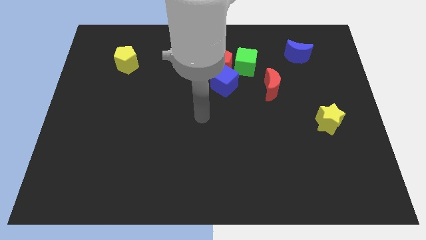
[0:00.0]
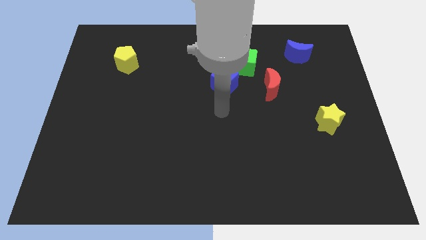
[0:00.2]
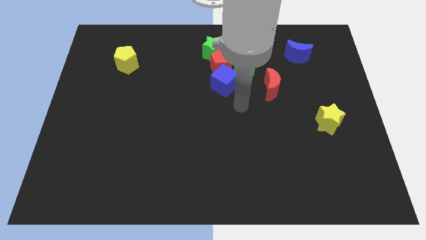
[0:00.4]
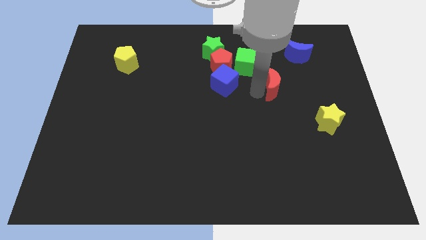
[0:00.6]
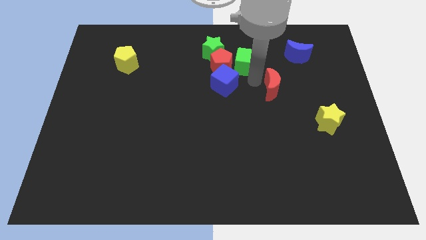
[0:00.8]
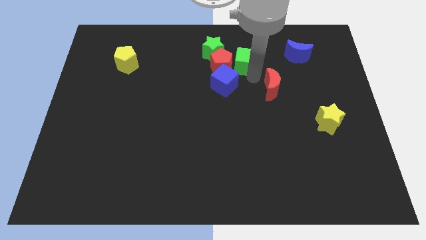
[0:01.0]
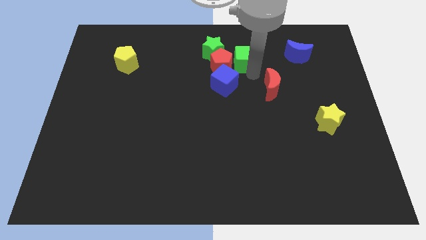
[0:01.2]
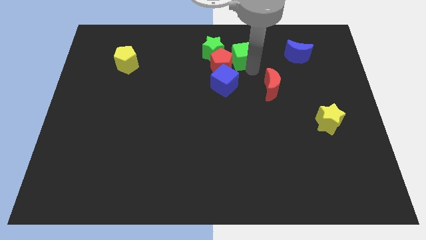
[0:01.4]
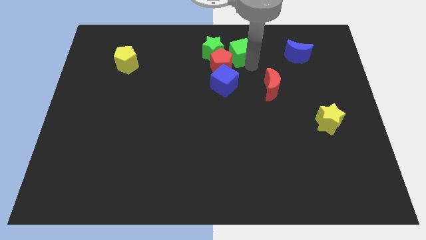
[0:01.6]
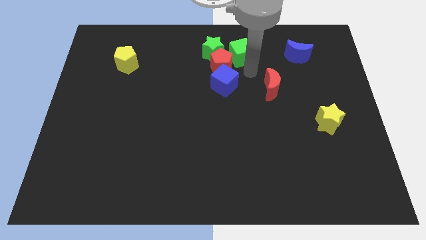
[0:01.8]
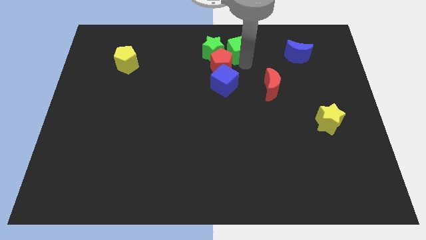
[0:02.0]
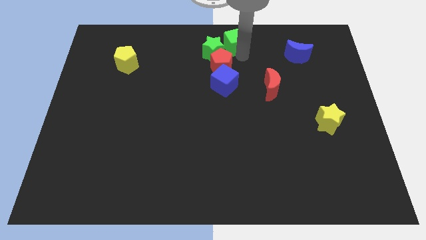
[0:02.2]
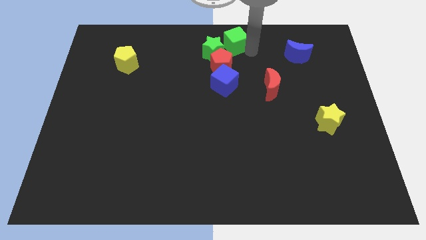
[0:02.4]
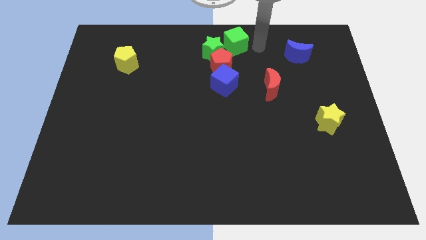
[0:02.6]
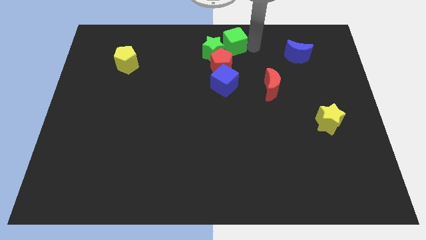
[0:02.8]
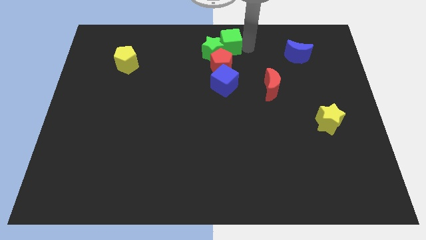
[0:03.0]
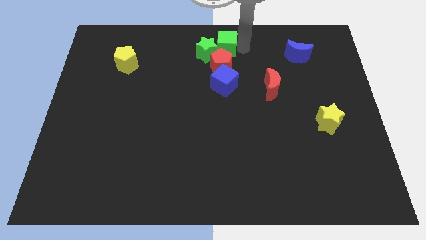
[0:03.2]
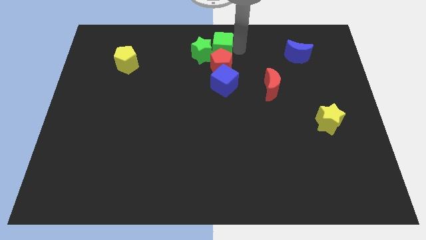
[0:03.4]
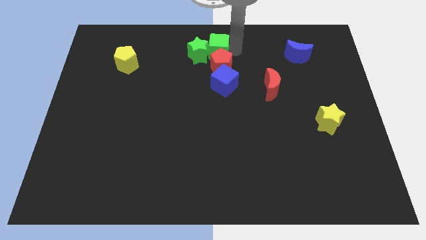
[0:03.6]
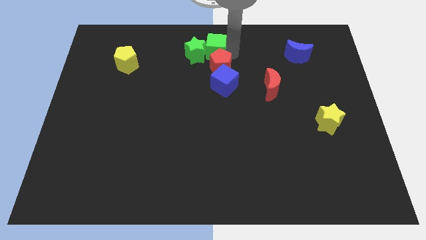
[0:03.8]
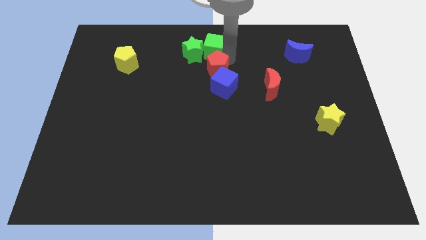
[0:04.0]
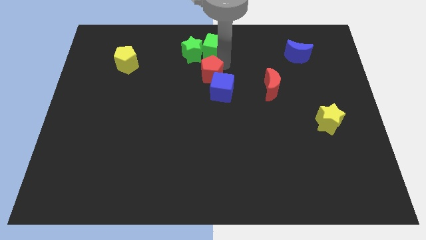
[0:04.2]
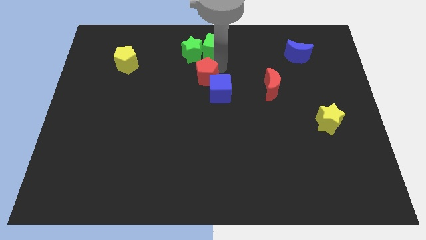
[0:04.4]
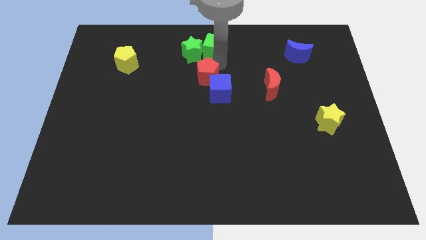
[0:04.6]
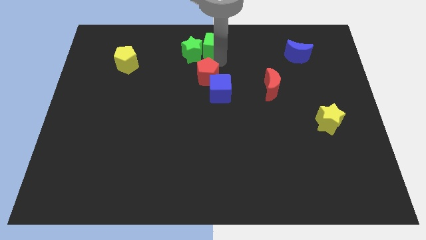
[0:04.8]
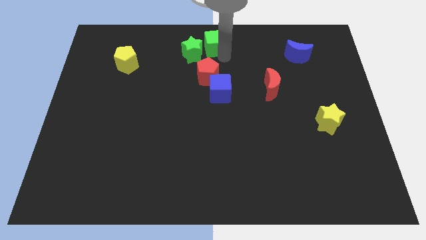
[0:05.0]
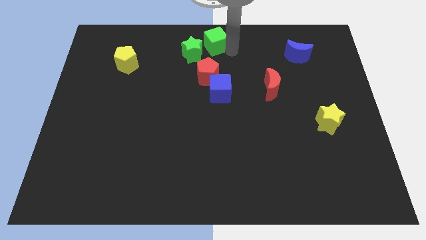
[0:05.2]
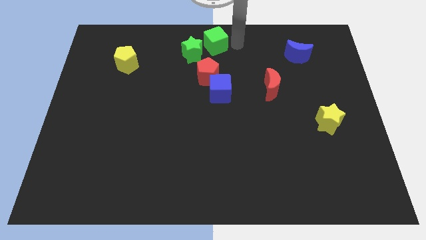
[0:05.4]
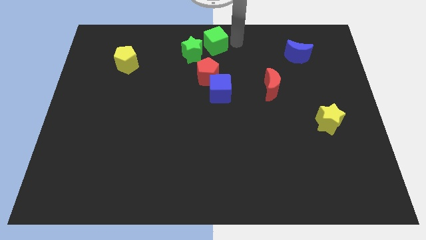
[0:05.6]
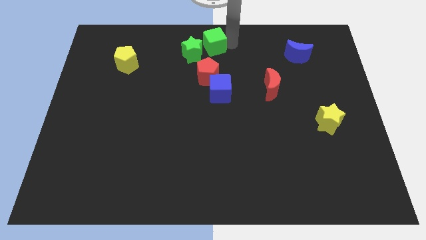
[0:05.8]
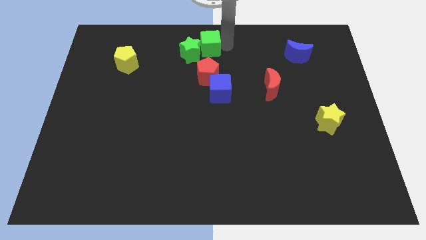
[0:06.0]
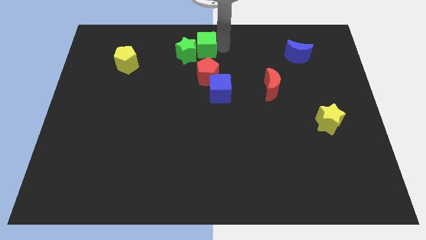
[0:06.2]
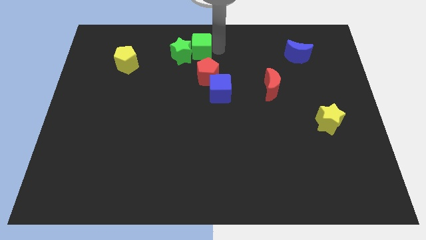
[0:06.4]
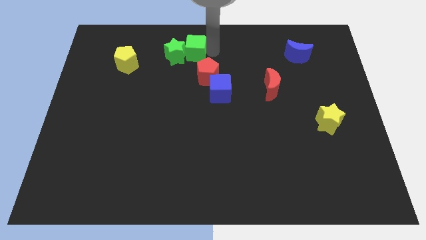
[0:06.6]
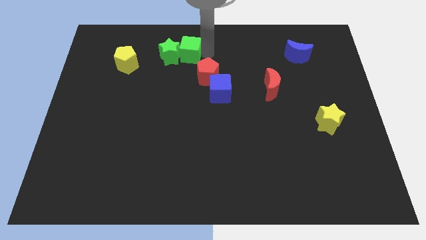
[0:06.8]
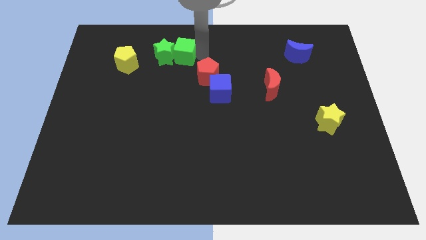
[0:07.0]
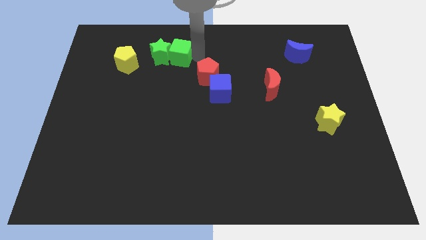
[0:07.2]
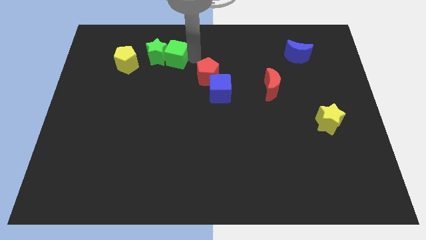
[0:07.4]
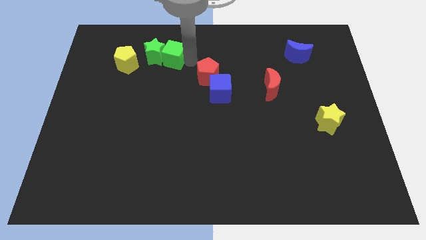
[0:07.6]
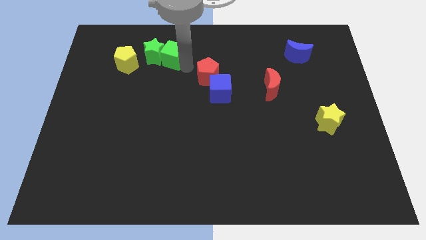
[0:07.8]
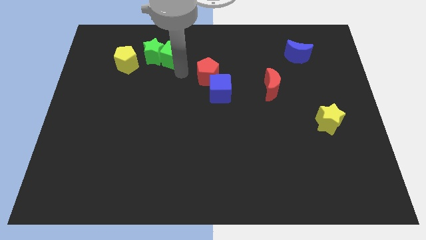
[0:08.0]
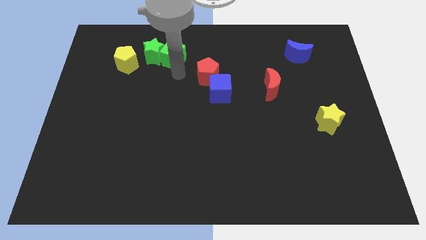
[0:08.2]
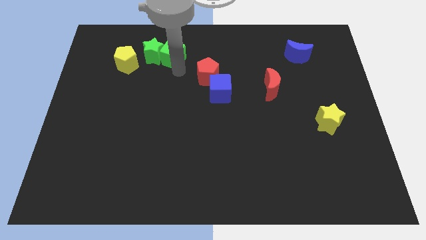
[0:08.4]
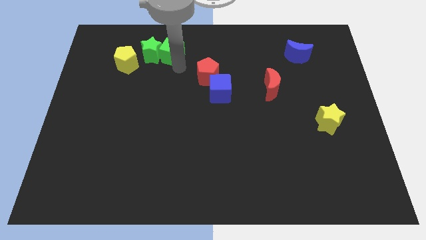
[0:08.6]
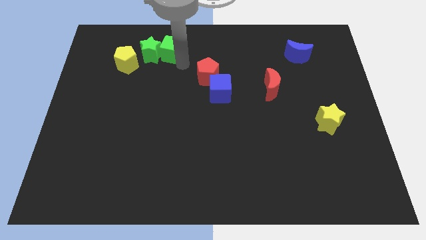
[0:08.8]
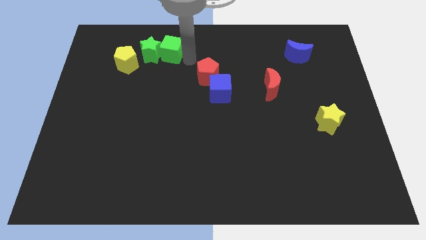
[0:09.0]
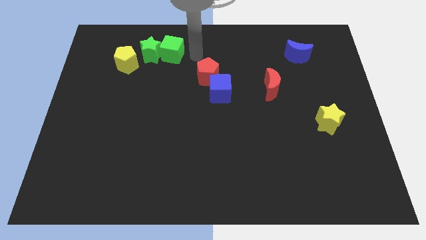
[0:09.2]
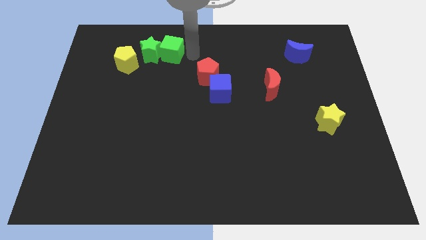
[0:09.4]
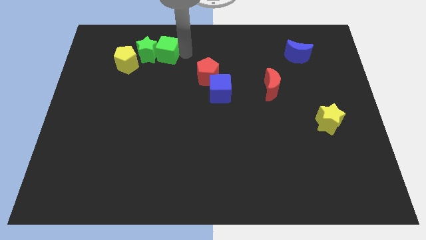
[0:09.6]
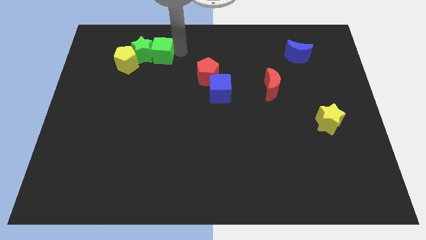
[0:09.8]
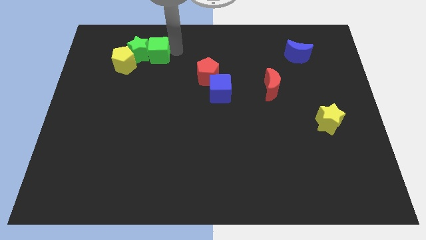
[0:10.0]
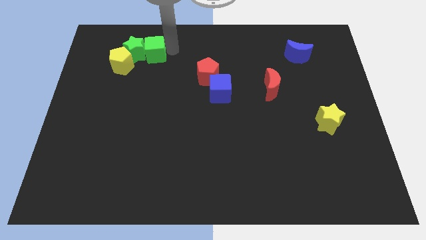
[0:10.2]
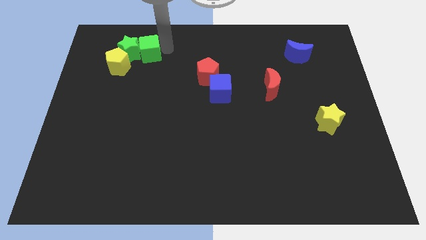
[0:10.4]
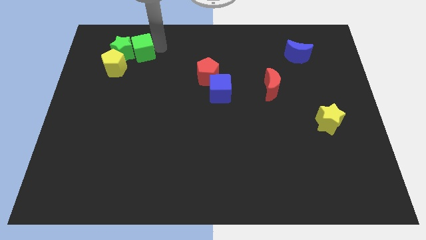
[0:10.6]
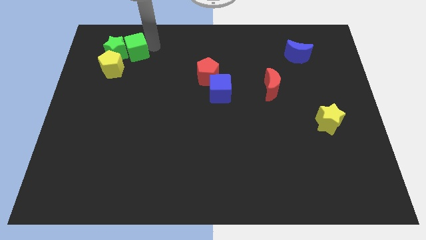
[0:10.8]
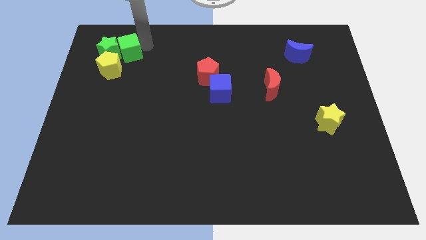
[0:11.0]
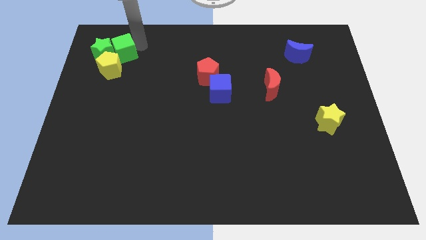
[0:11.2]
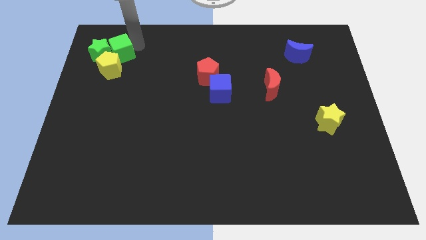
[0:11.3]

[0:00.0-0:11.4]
move the green cube close to the yellow pentagon

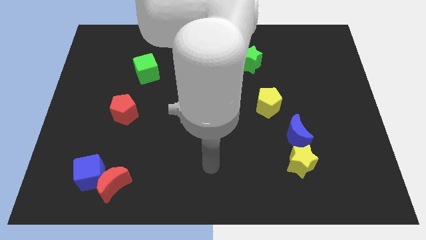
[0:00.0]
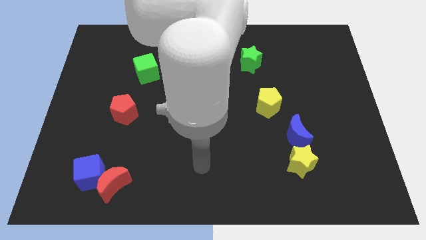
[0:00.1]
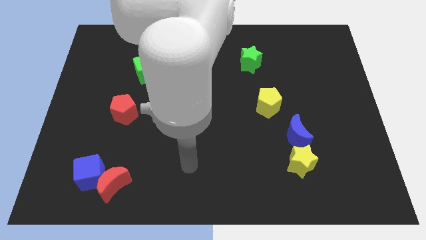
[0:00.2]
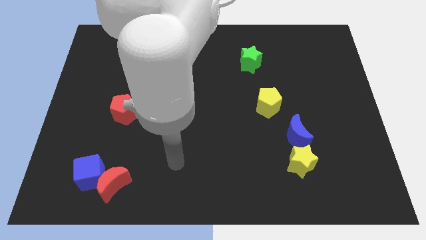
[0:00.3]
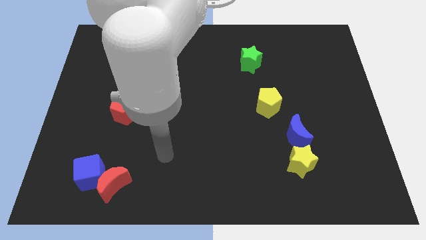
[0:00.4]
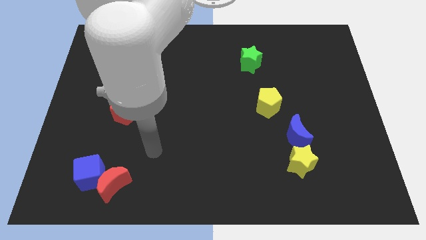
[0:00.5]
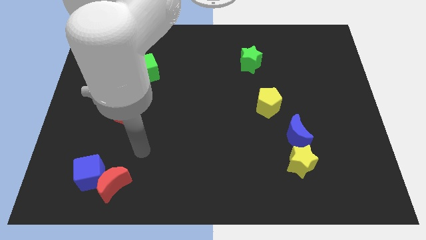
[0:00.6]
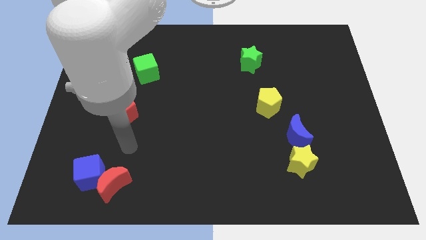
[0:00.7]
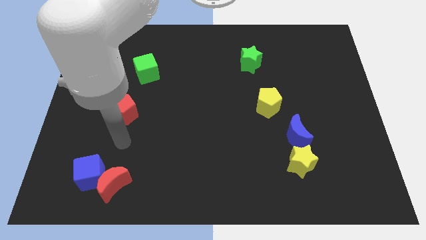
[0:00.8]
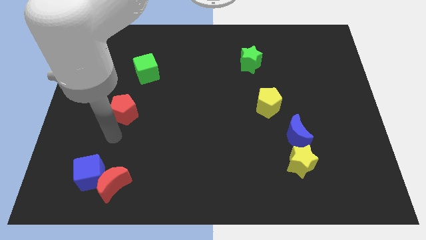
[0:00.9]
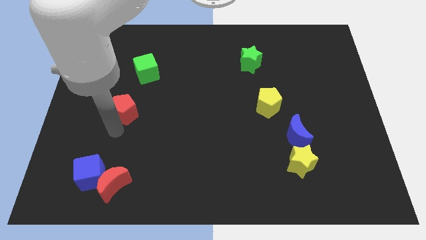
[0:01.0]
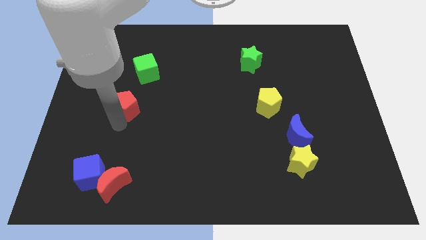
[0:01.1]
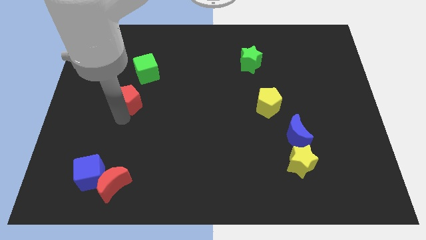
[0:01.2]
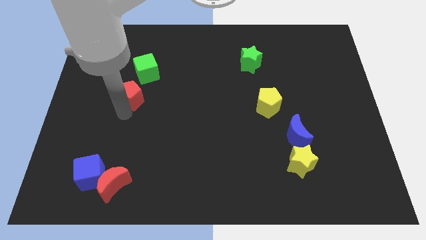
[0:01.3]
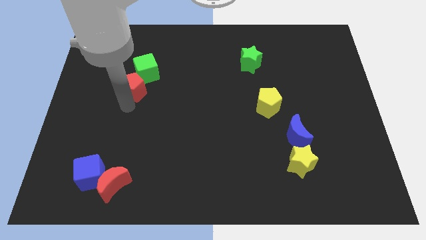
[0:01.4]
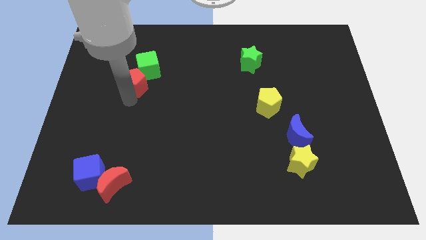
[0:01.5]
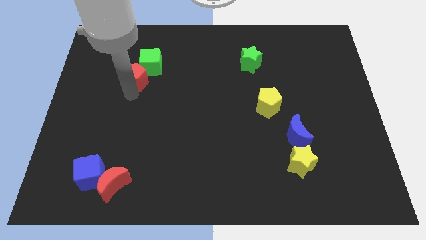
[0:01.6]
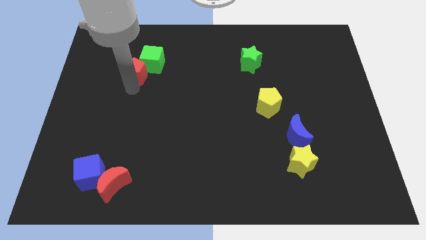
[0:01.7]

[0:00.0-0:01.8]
put the red pentagon towards the green cube
